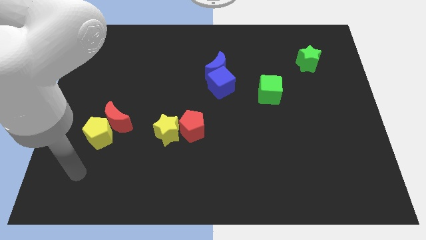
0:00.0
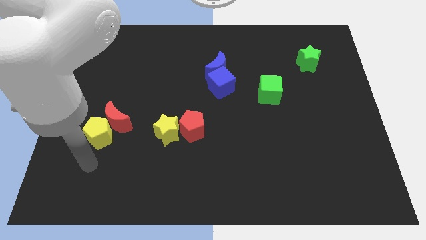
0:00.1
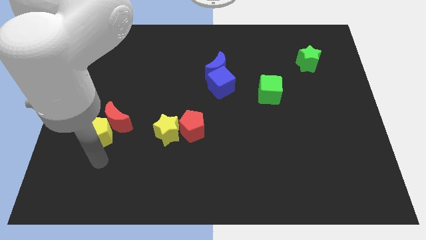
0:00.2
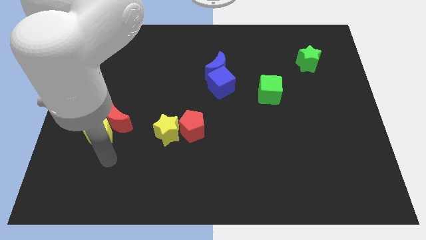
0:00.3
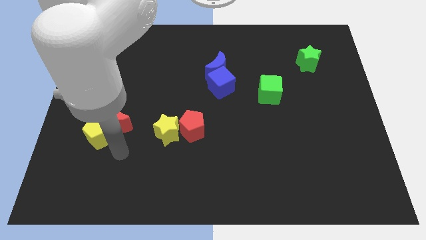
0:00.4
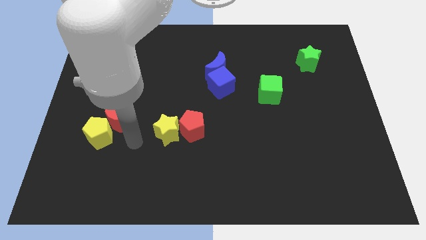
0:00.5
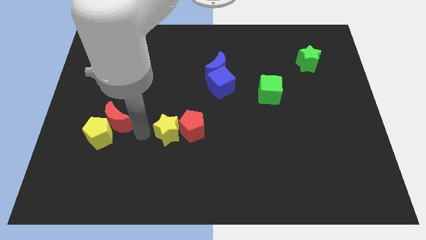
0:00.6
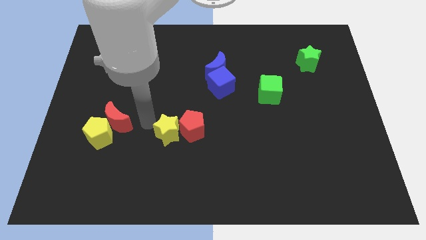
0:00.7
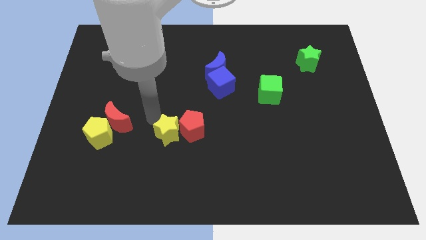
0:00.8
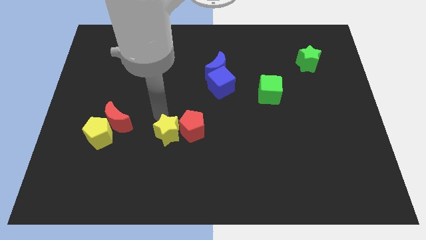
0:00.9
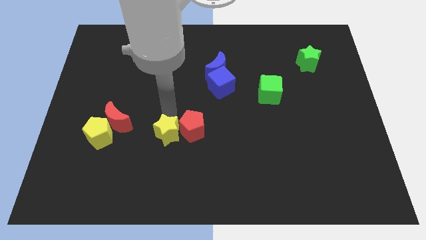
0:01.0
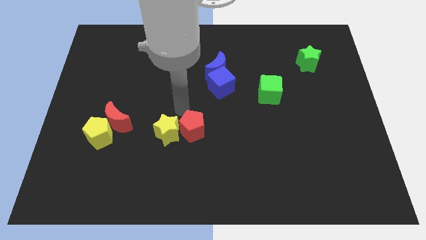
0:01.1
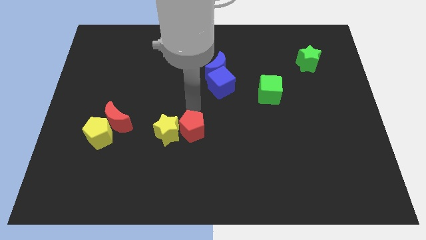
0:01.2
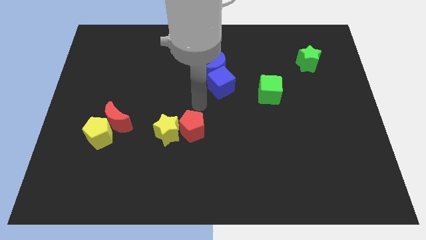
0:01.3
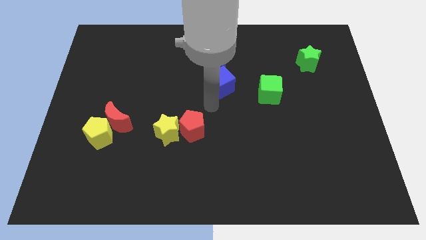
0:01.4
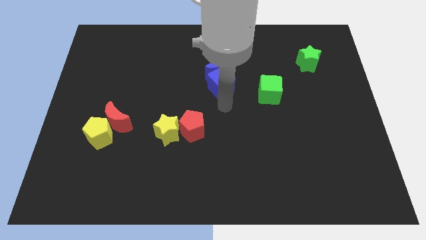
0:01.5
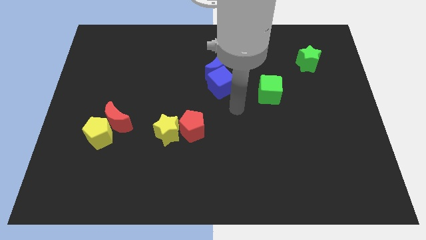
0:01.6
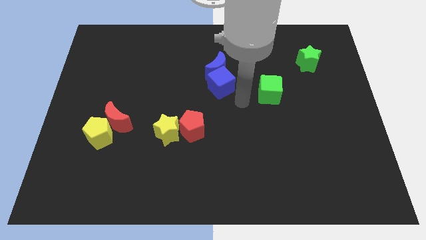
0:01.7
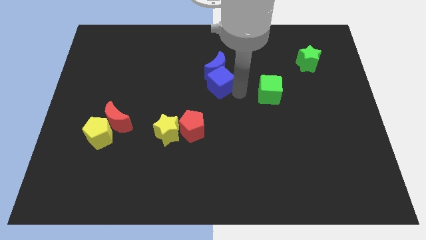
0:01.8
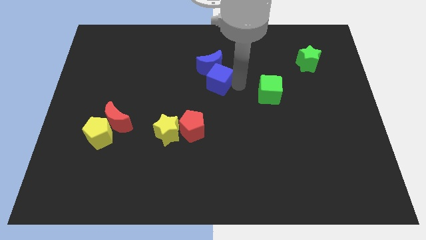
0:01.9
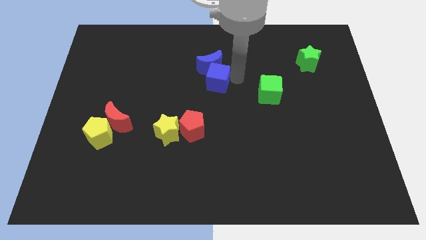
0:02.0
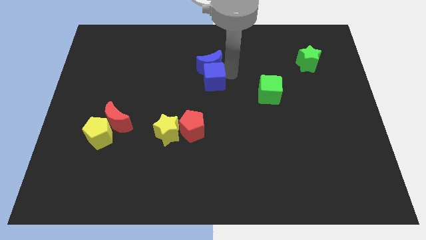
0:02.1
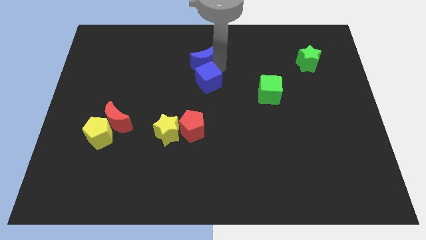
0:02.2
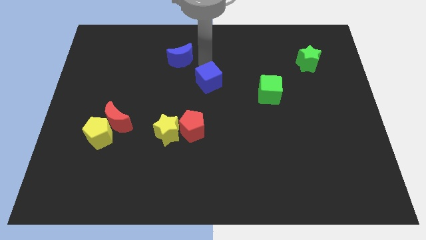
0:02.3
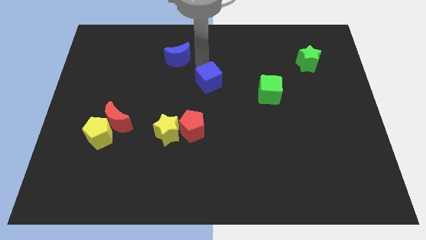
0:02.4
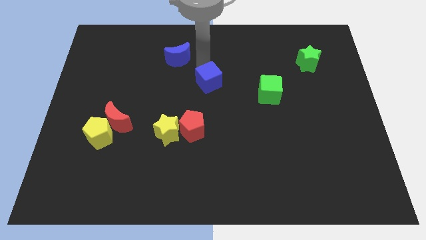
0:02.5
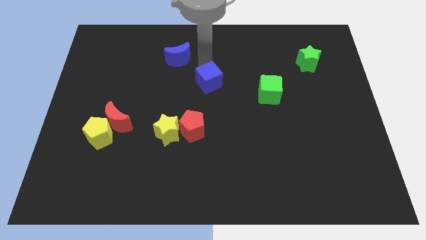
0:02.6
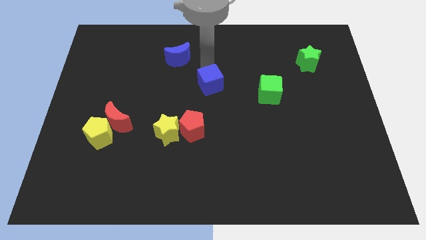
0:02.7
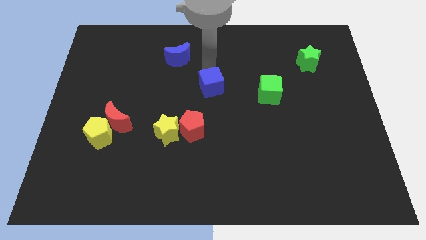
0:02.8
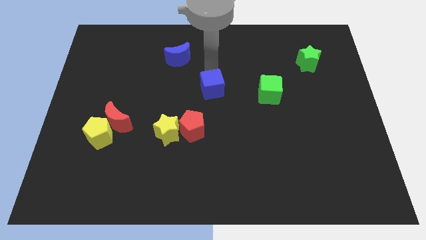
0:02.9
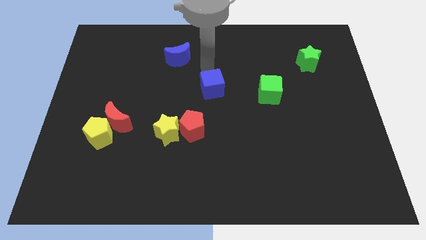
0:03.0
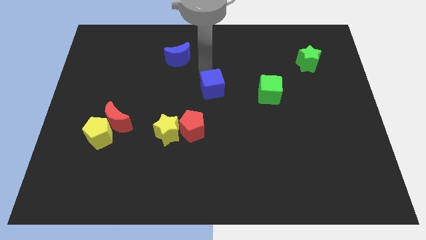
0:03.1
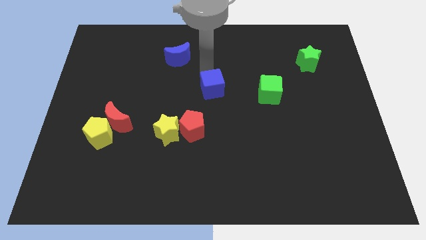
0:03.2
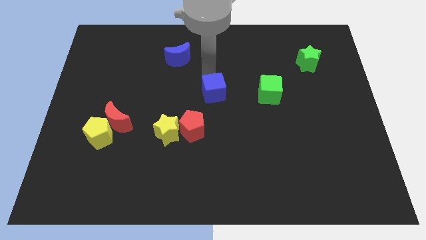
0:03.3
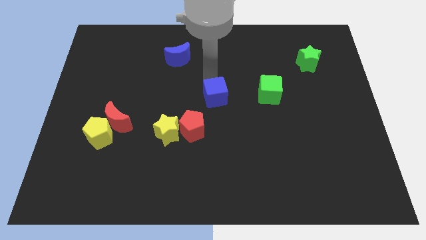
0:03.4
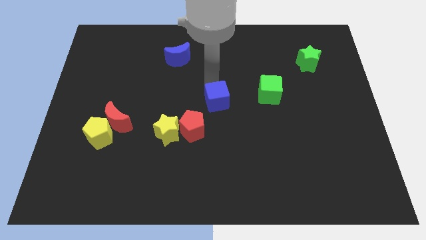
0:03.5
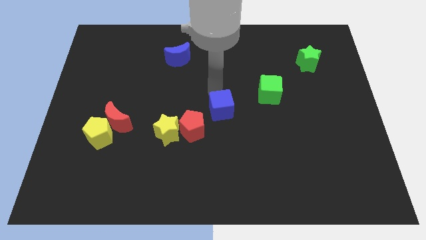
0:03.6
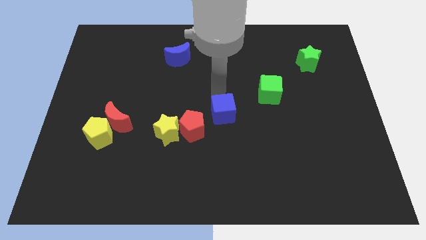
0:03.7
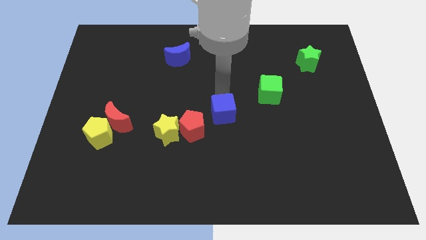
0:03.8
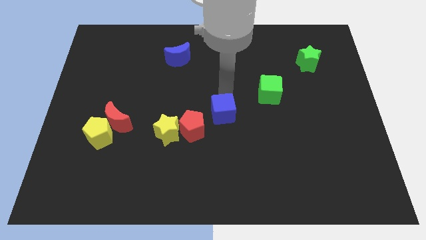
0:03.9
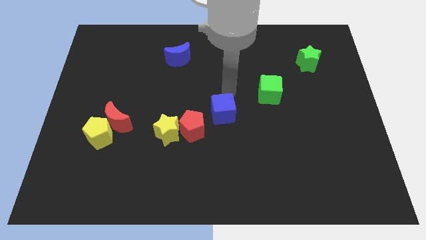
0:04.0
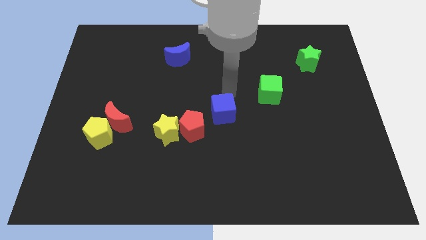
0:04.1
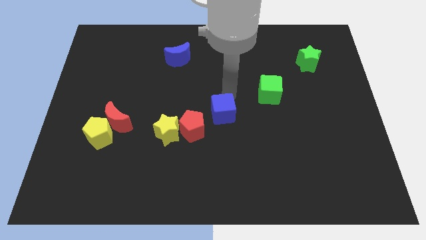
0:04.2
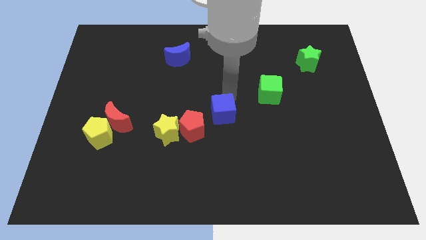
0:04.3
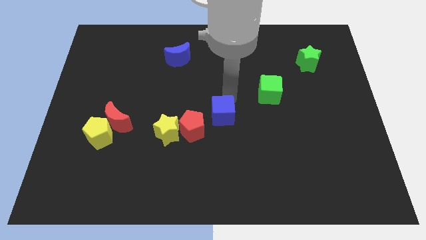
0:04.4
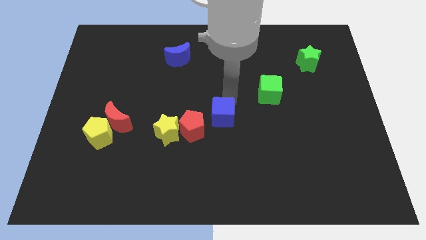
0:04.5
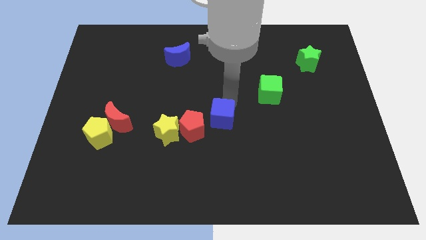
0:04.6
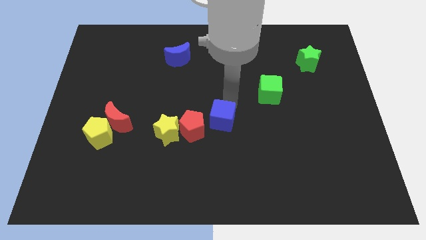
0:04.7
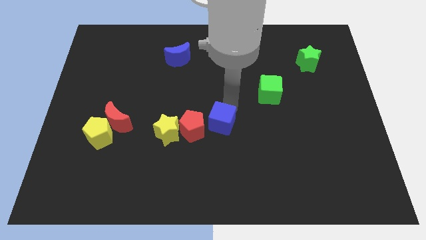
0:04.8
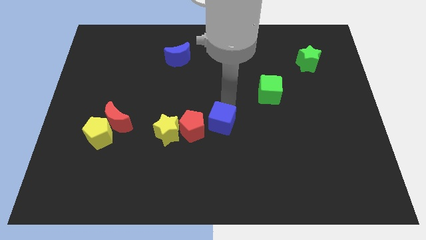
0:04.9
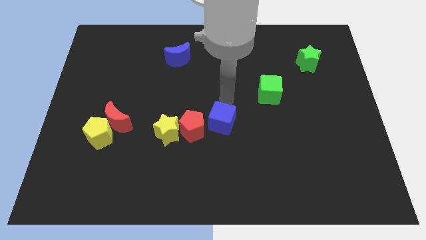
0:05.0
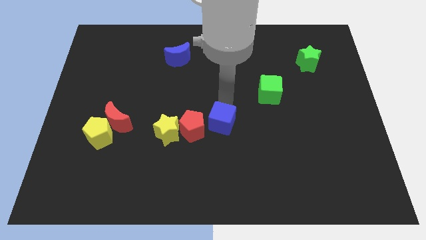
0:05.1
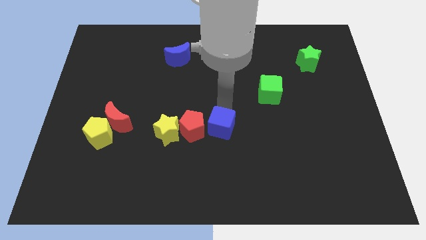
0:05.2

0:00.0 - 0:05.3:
put the blue cube to the bottom right of the red pentagon
